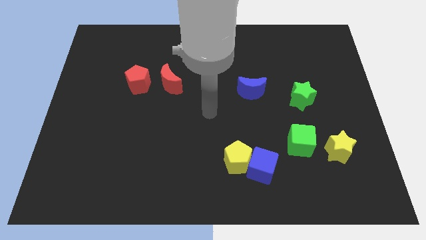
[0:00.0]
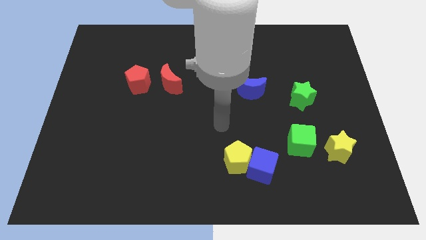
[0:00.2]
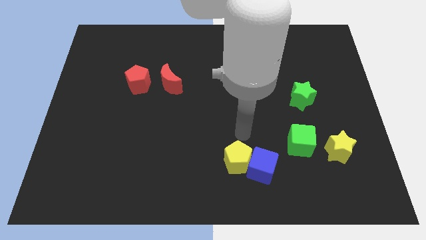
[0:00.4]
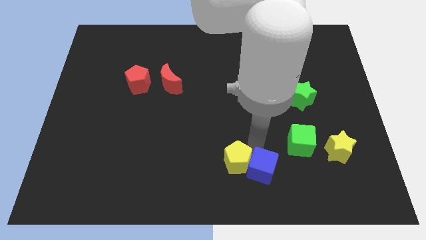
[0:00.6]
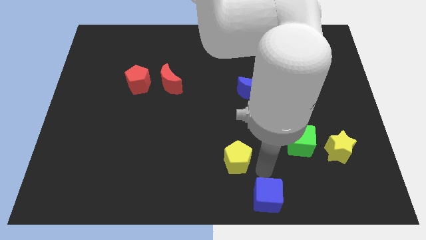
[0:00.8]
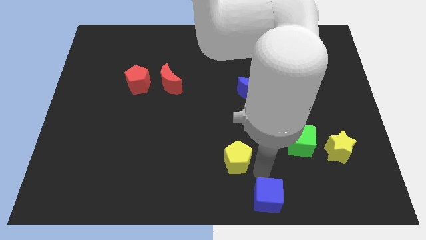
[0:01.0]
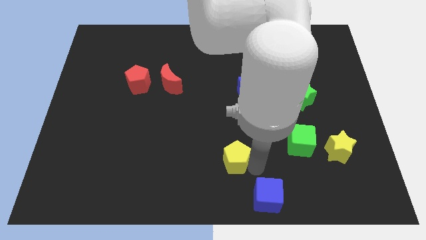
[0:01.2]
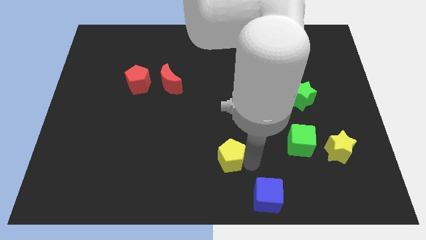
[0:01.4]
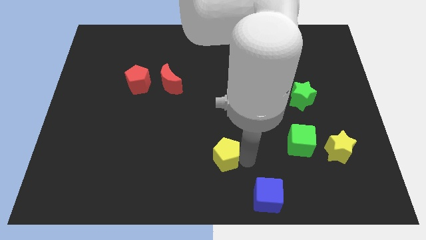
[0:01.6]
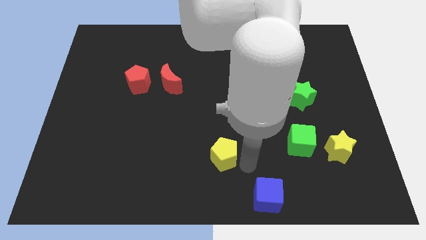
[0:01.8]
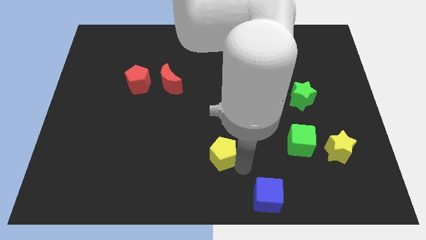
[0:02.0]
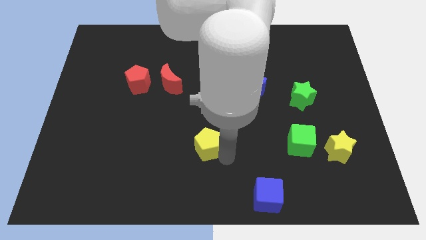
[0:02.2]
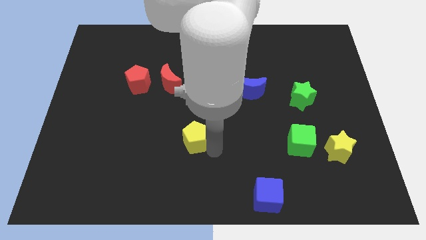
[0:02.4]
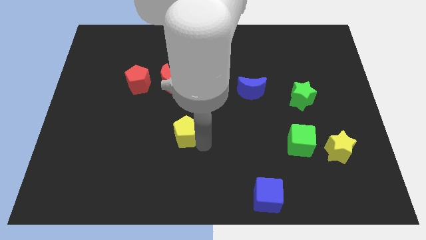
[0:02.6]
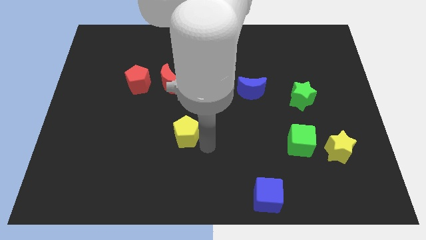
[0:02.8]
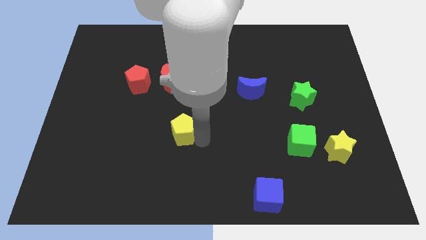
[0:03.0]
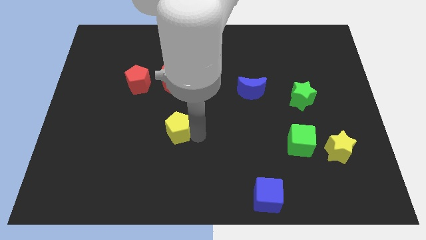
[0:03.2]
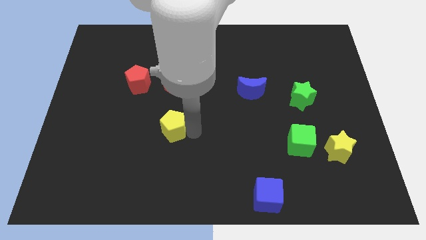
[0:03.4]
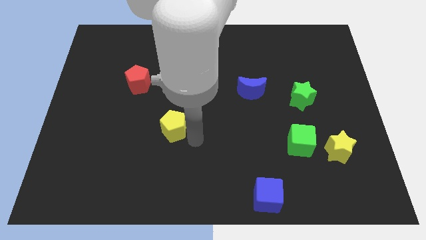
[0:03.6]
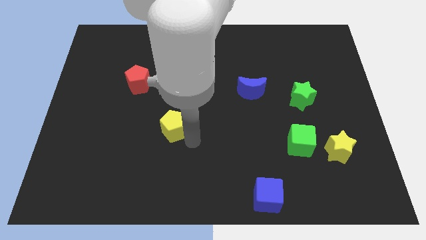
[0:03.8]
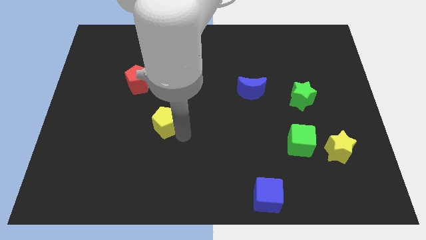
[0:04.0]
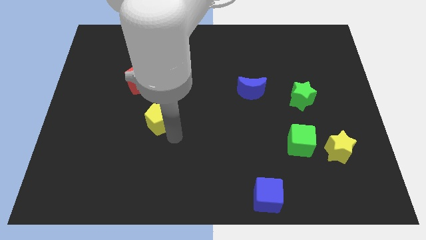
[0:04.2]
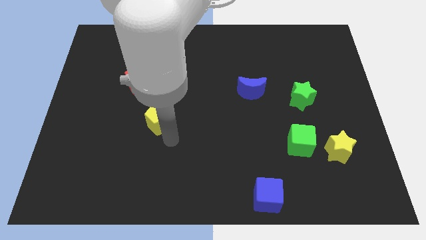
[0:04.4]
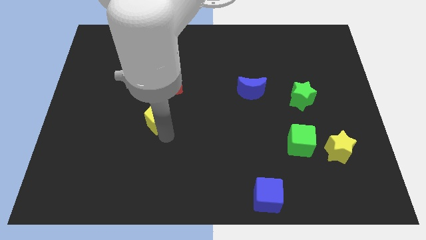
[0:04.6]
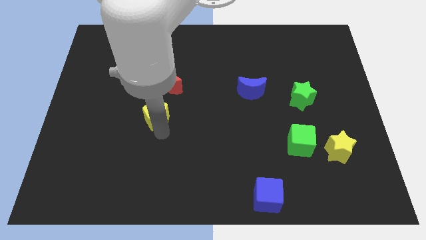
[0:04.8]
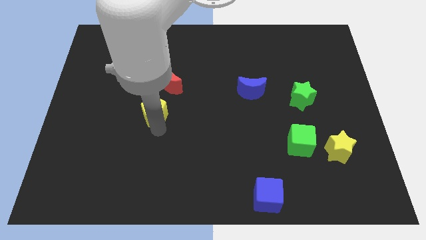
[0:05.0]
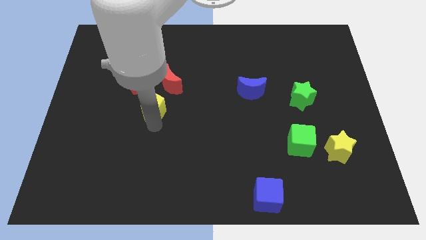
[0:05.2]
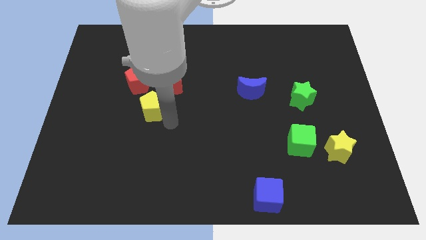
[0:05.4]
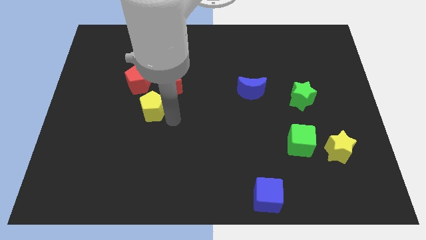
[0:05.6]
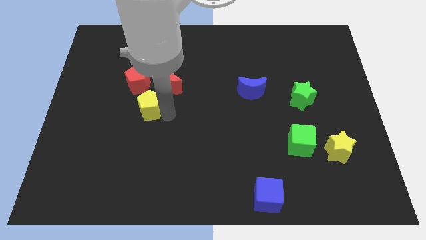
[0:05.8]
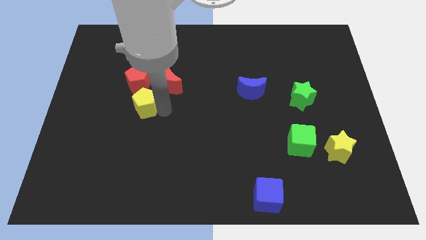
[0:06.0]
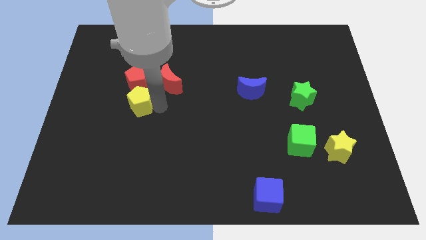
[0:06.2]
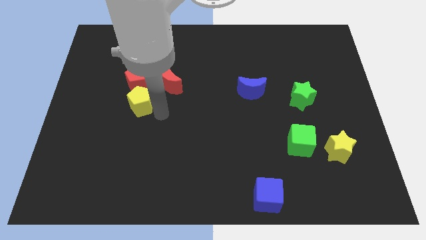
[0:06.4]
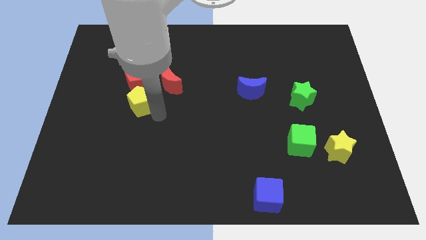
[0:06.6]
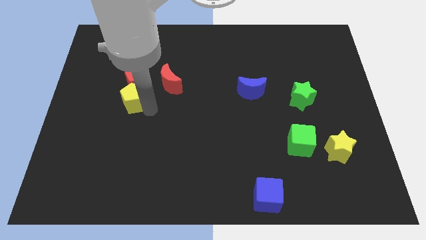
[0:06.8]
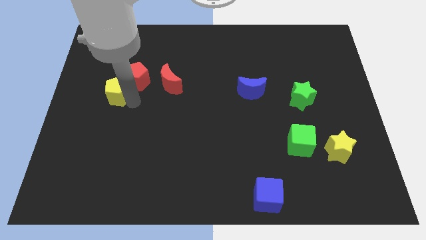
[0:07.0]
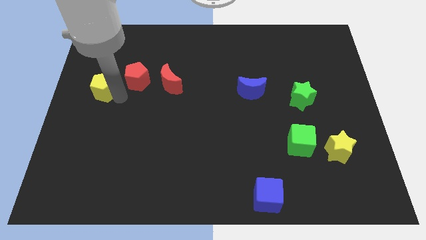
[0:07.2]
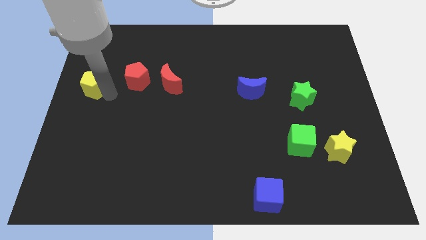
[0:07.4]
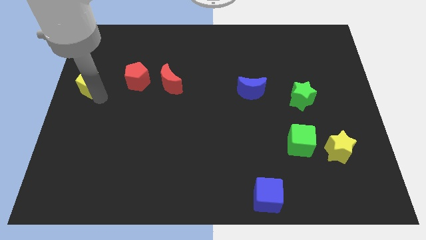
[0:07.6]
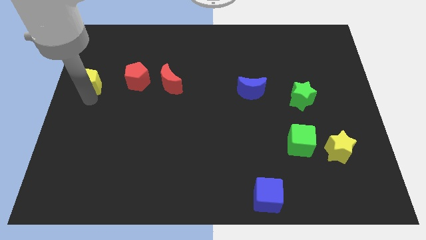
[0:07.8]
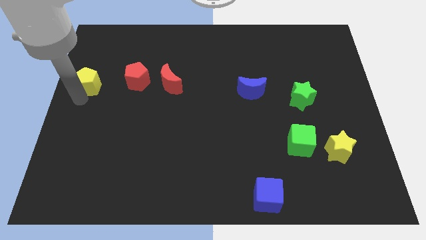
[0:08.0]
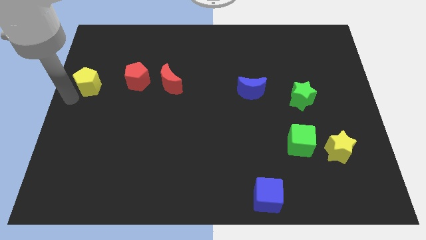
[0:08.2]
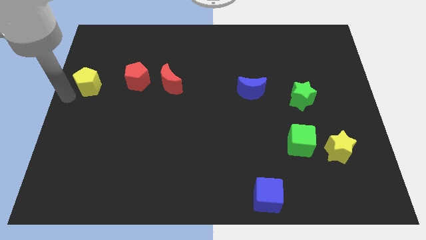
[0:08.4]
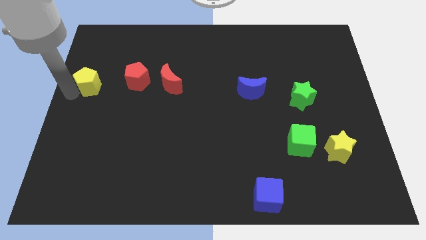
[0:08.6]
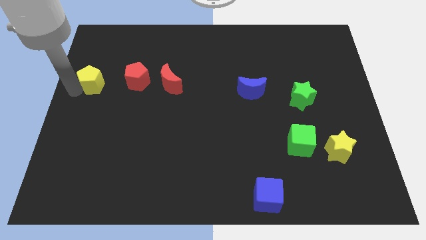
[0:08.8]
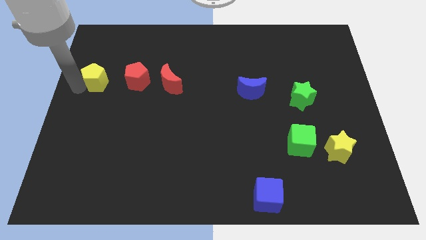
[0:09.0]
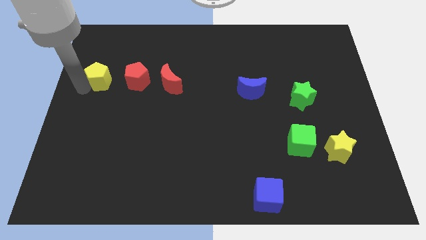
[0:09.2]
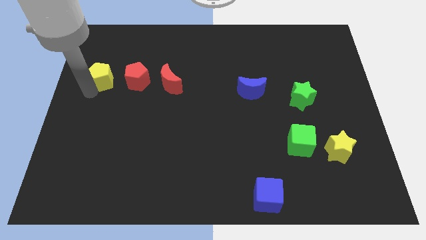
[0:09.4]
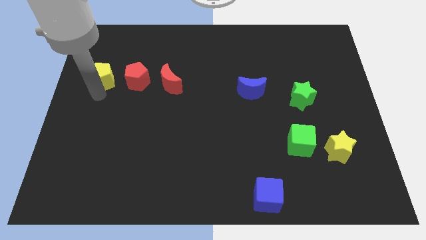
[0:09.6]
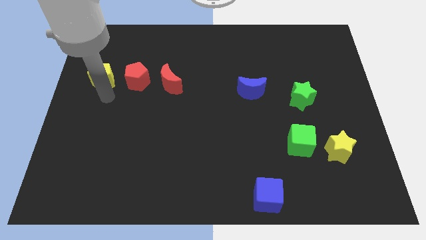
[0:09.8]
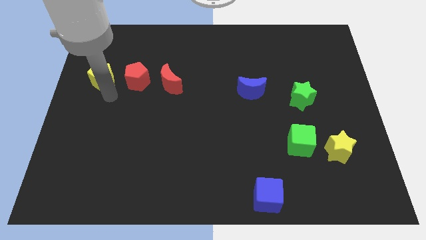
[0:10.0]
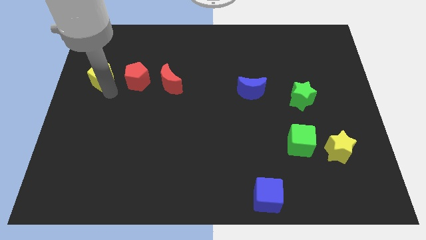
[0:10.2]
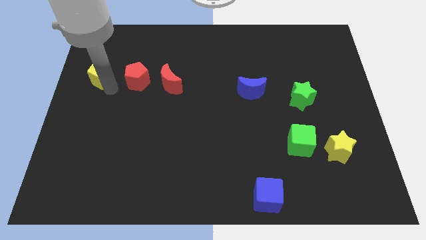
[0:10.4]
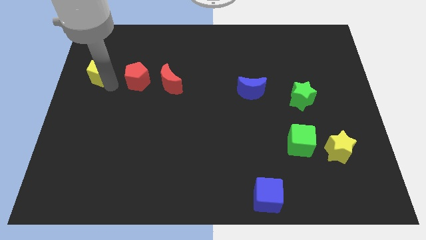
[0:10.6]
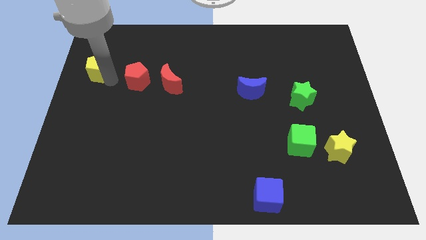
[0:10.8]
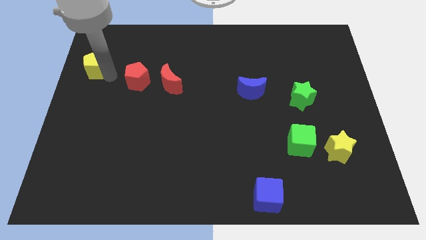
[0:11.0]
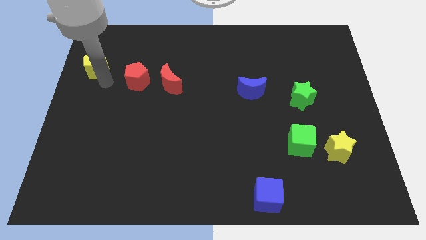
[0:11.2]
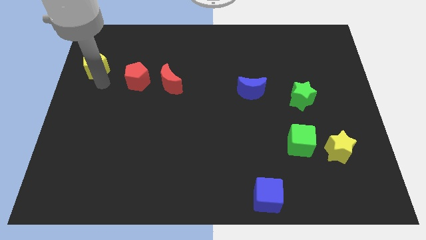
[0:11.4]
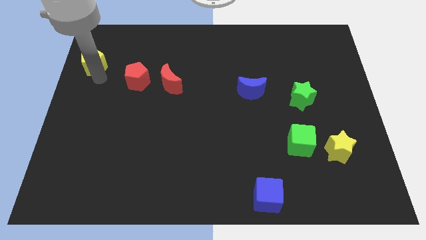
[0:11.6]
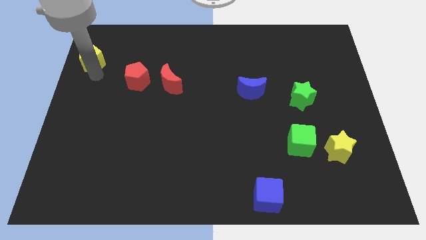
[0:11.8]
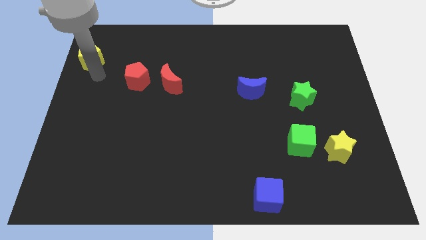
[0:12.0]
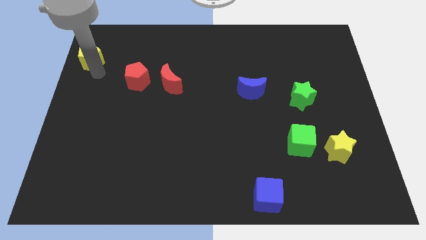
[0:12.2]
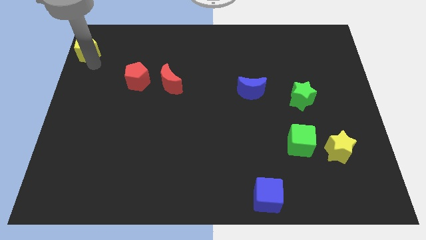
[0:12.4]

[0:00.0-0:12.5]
move the yellow pentagon to the top left of the board
